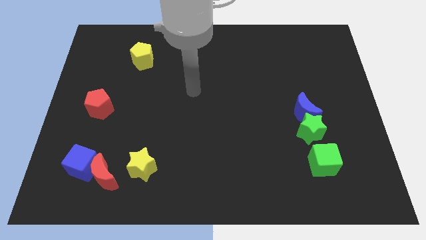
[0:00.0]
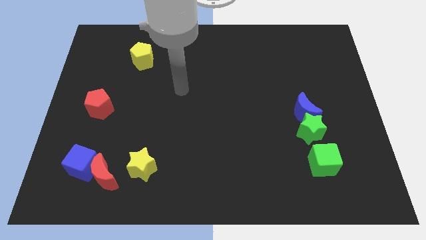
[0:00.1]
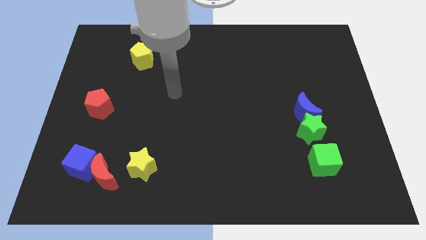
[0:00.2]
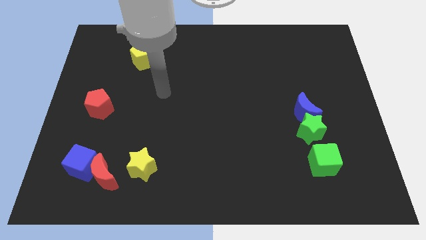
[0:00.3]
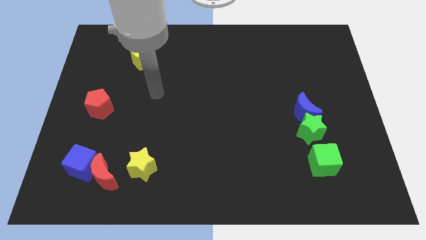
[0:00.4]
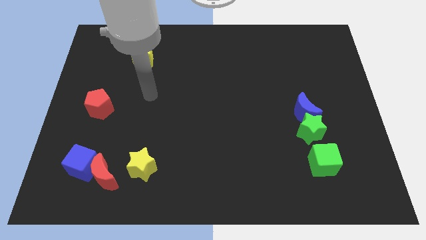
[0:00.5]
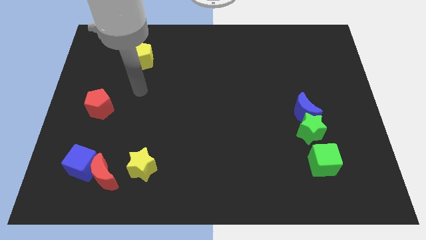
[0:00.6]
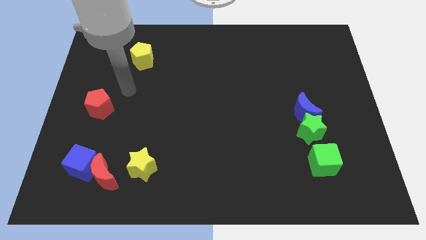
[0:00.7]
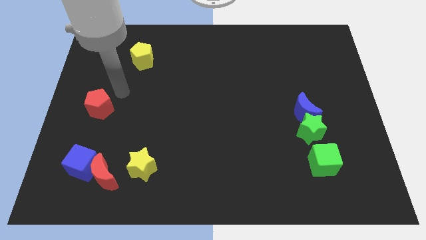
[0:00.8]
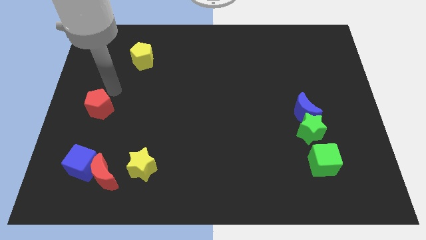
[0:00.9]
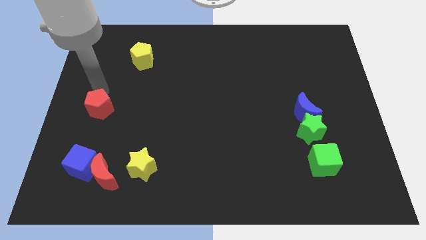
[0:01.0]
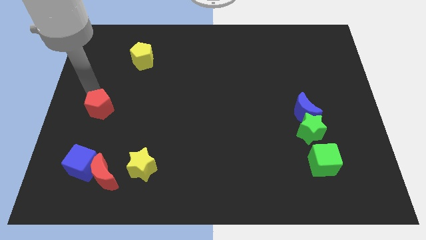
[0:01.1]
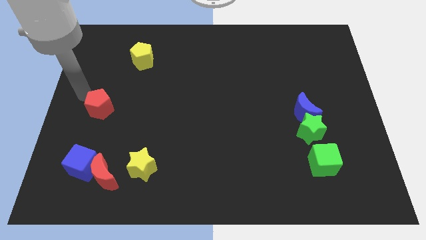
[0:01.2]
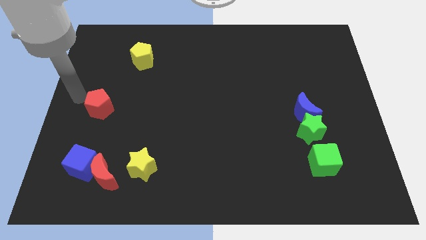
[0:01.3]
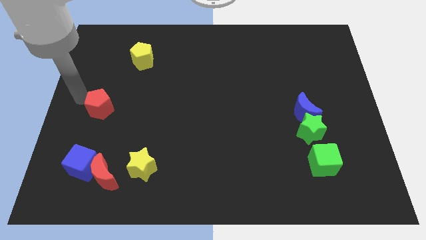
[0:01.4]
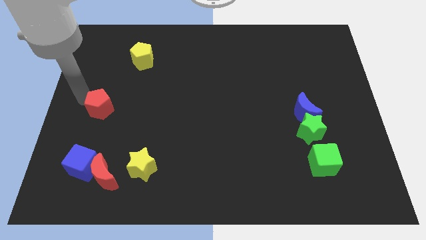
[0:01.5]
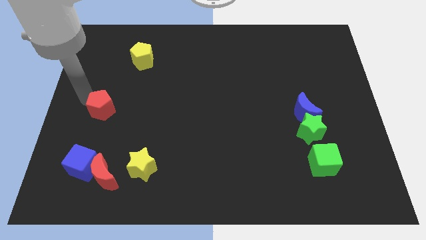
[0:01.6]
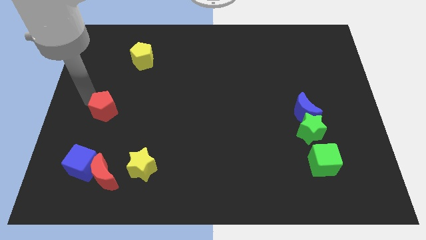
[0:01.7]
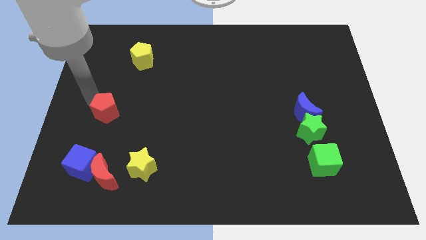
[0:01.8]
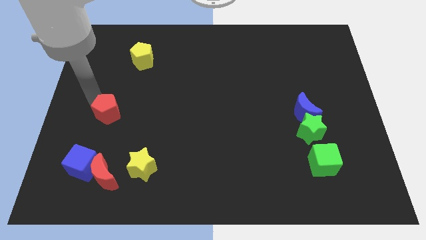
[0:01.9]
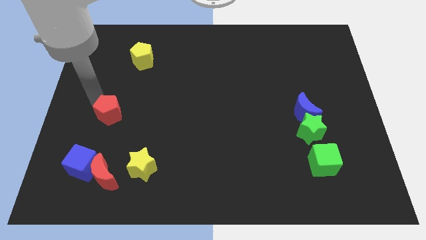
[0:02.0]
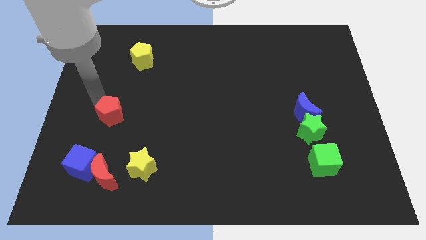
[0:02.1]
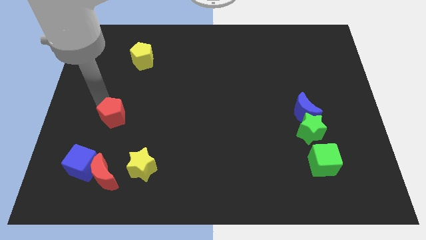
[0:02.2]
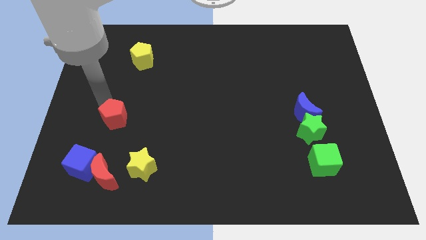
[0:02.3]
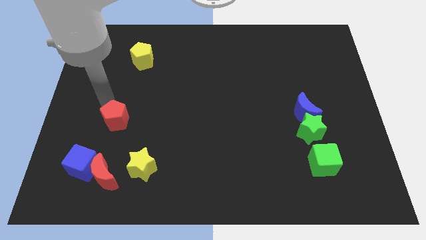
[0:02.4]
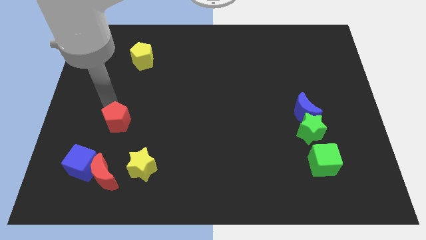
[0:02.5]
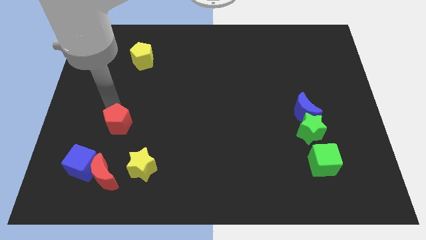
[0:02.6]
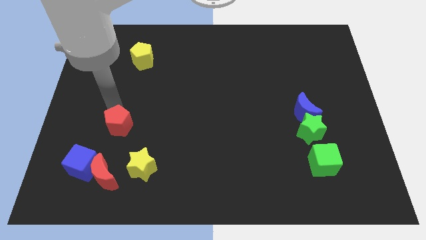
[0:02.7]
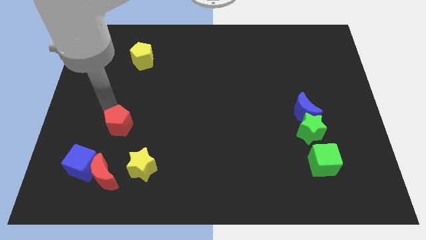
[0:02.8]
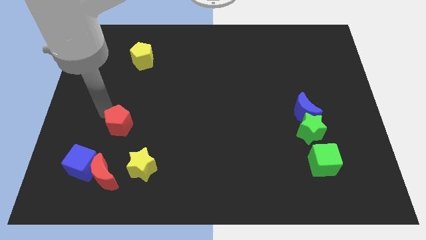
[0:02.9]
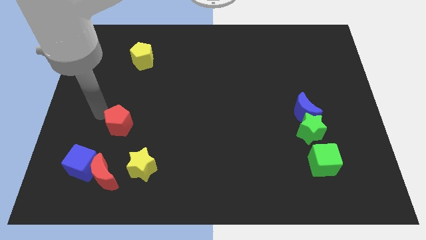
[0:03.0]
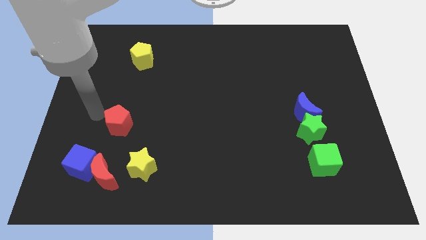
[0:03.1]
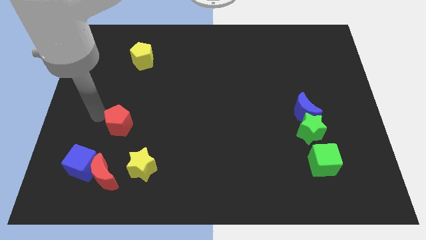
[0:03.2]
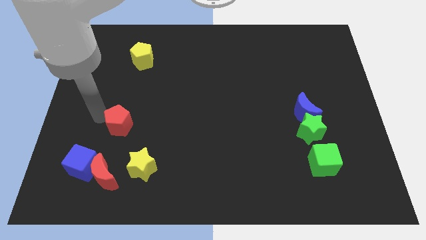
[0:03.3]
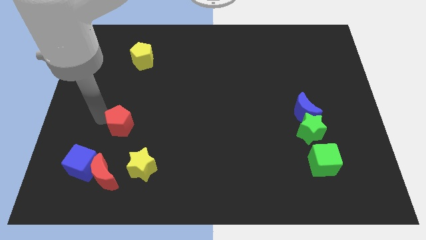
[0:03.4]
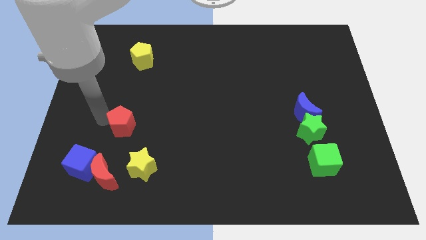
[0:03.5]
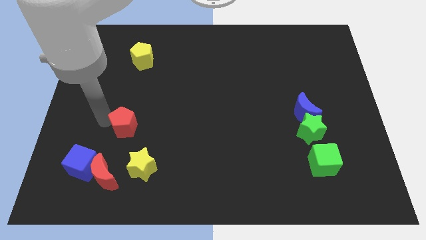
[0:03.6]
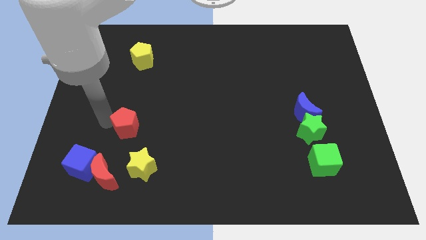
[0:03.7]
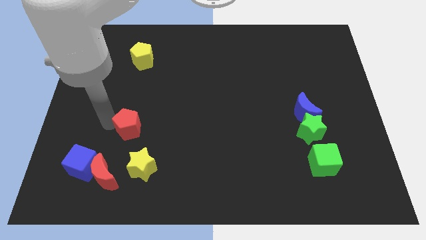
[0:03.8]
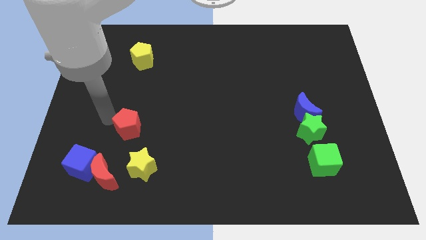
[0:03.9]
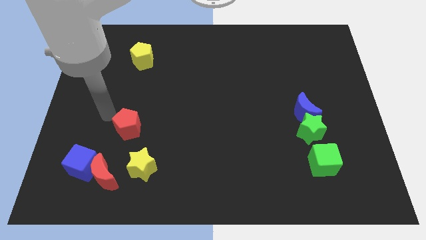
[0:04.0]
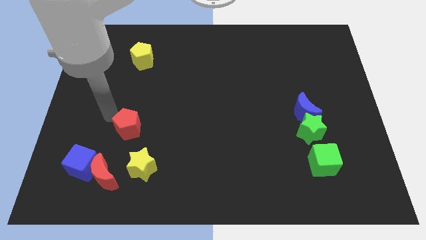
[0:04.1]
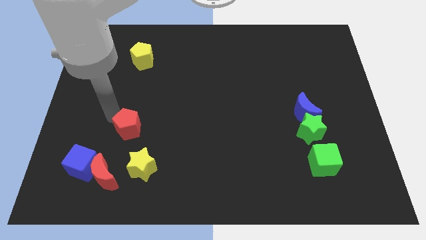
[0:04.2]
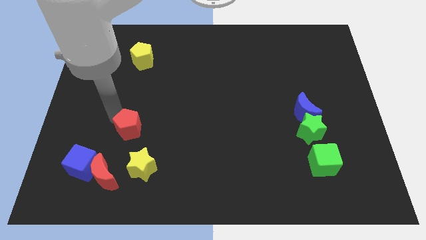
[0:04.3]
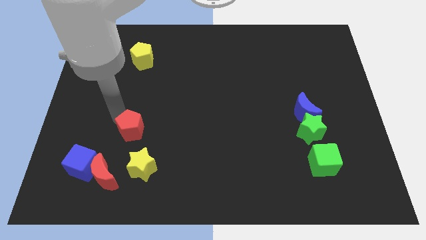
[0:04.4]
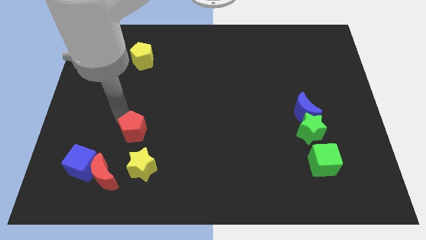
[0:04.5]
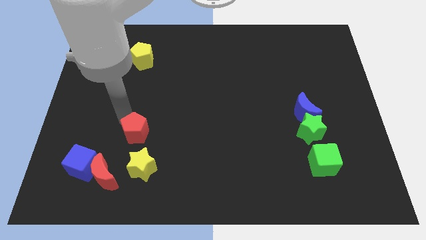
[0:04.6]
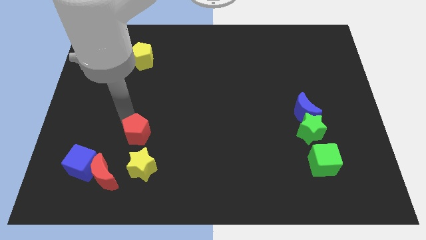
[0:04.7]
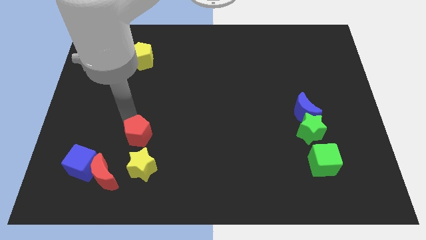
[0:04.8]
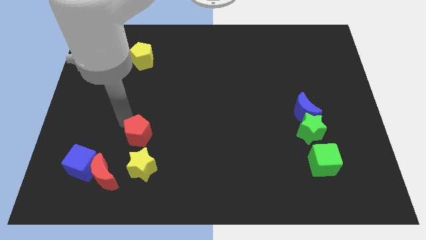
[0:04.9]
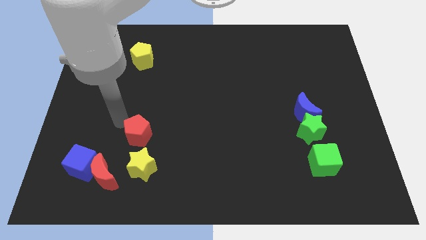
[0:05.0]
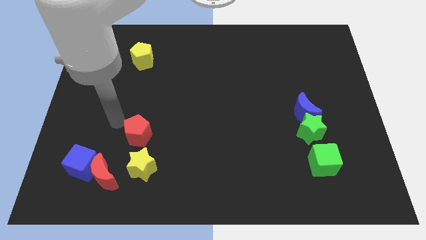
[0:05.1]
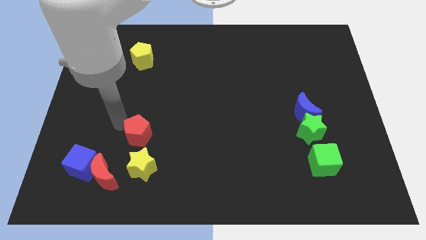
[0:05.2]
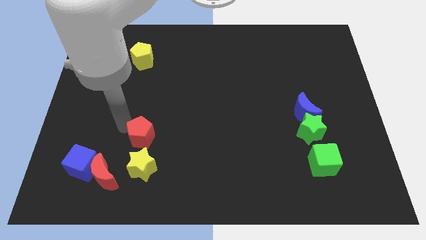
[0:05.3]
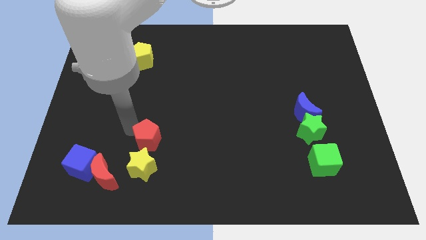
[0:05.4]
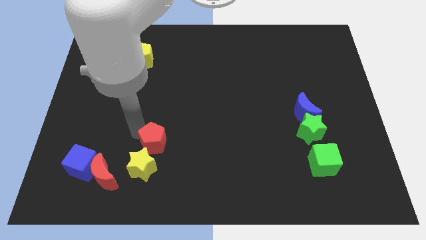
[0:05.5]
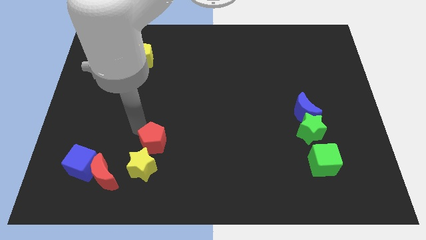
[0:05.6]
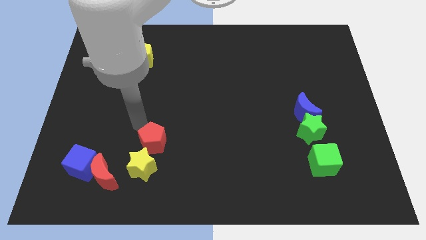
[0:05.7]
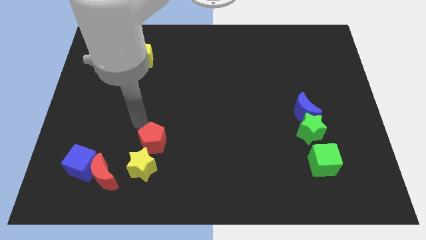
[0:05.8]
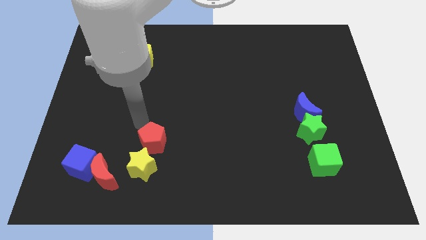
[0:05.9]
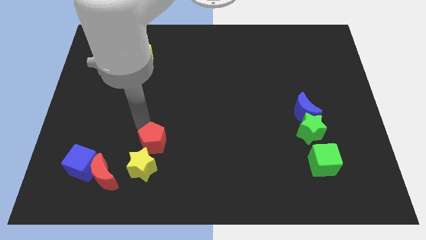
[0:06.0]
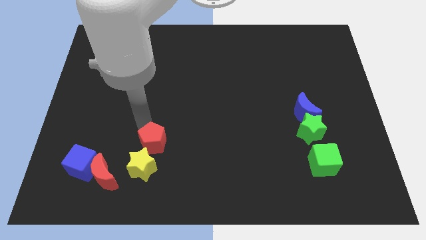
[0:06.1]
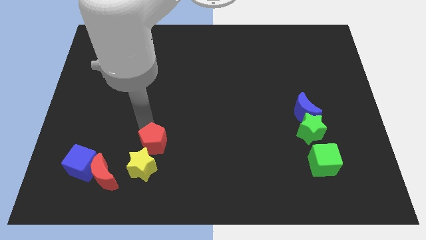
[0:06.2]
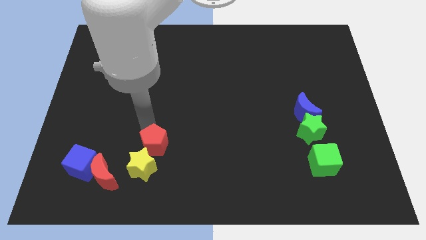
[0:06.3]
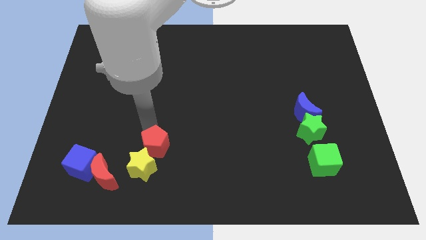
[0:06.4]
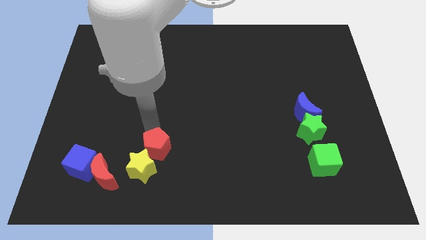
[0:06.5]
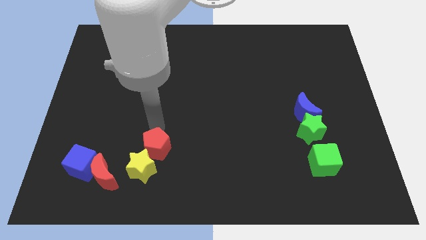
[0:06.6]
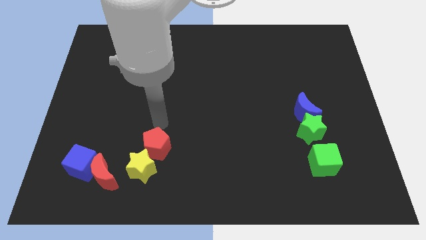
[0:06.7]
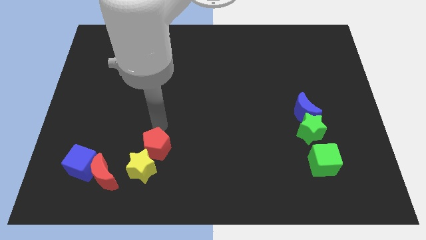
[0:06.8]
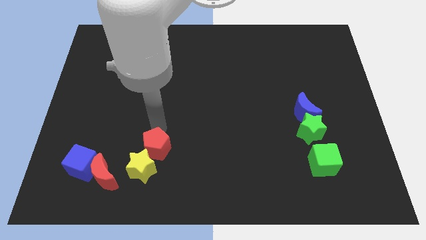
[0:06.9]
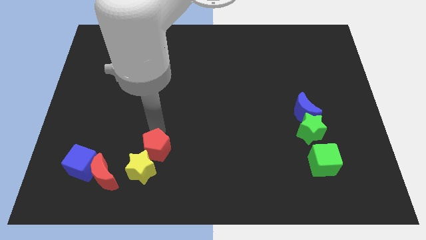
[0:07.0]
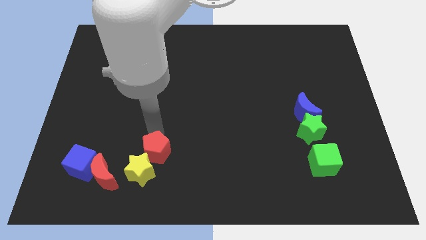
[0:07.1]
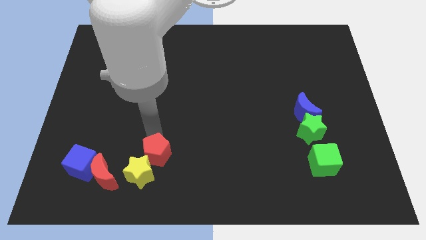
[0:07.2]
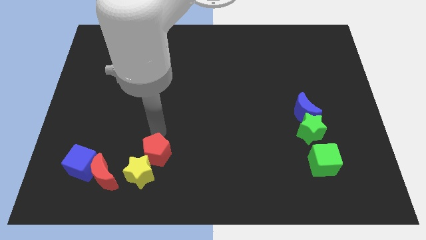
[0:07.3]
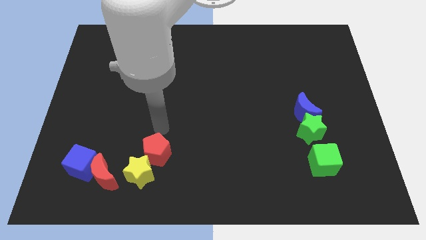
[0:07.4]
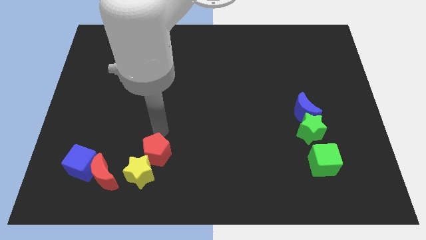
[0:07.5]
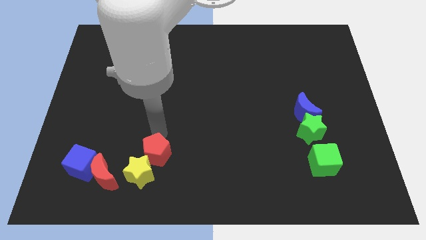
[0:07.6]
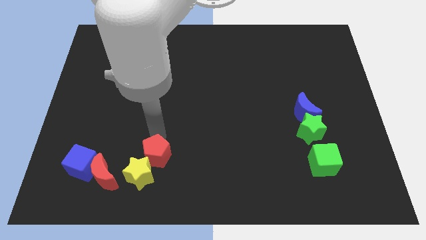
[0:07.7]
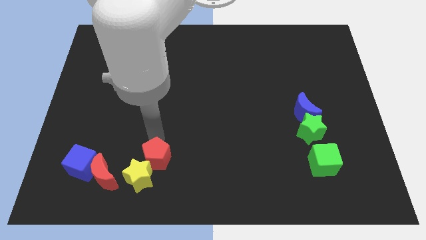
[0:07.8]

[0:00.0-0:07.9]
push the red pentagon just right of the red moon

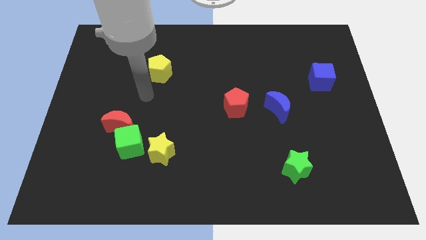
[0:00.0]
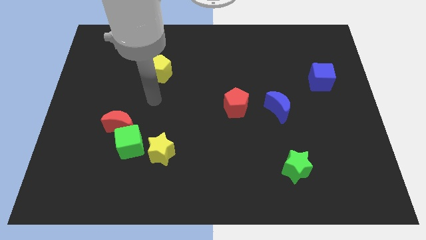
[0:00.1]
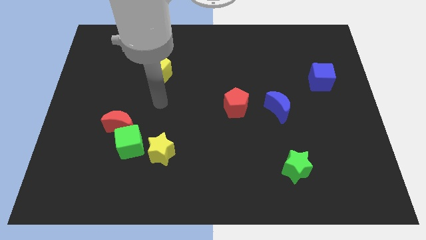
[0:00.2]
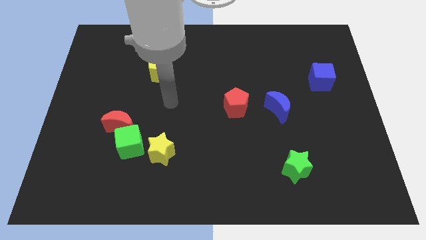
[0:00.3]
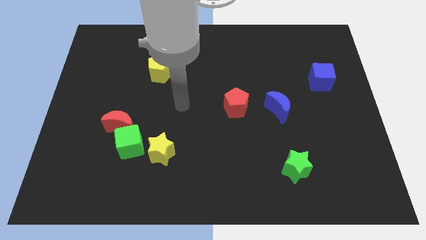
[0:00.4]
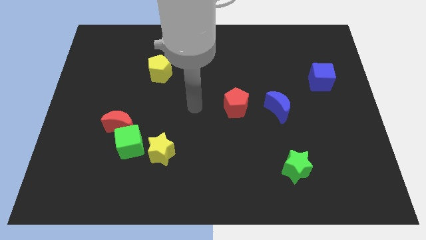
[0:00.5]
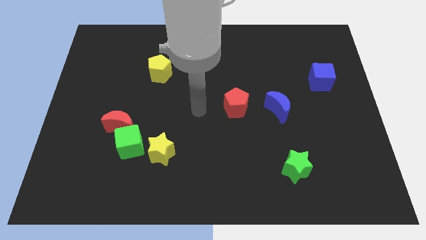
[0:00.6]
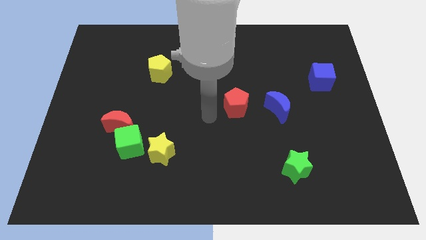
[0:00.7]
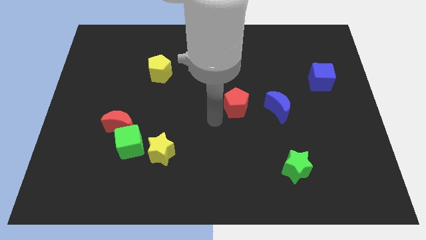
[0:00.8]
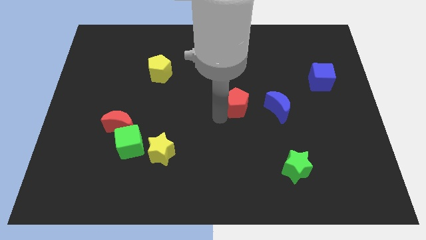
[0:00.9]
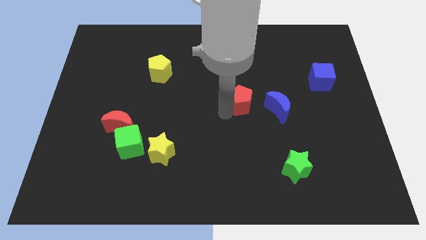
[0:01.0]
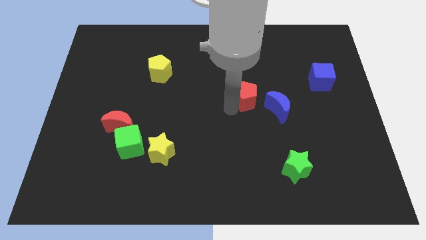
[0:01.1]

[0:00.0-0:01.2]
move the red pentagon to the top left of the blue moon
